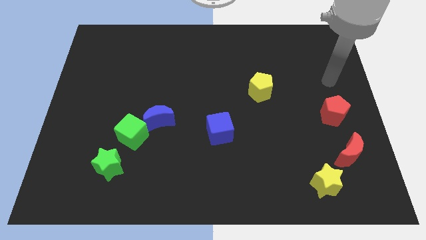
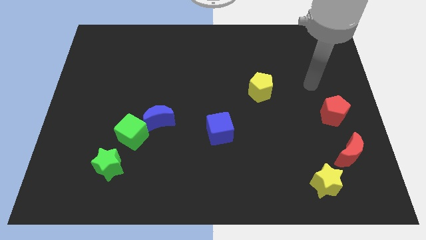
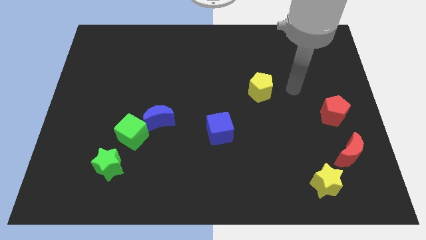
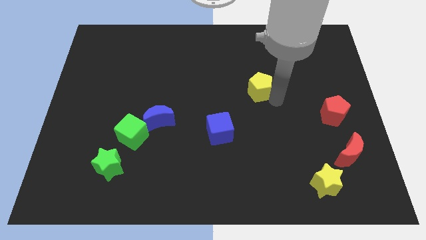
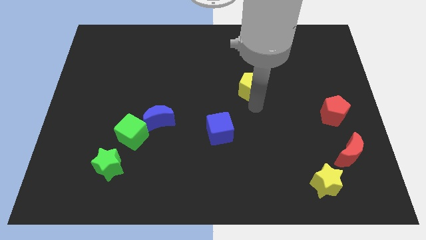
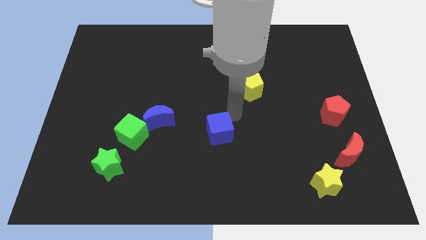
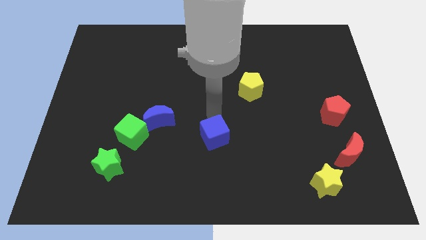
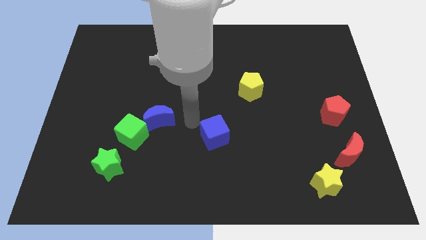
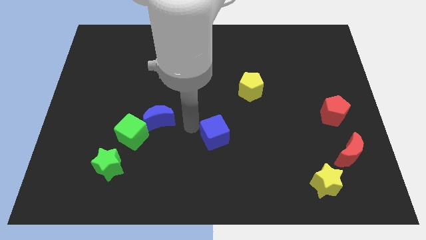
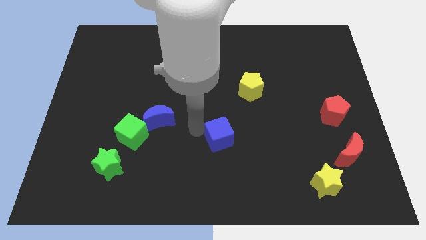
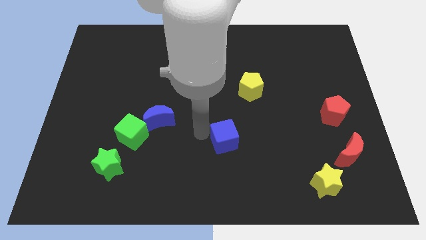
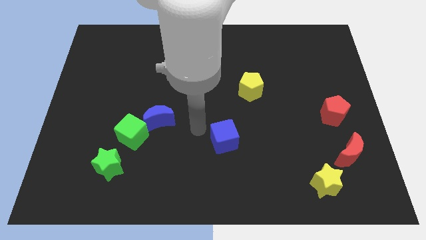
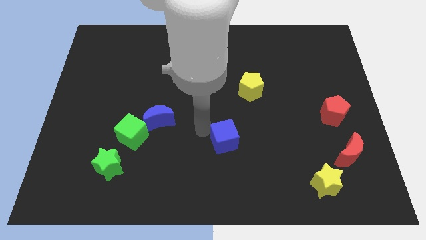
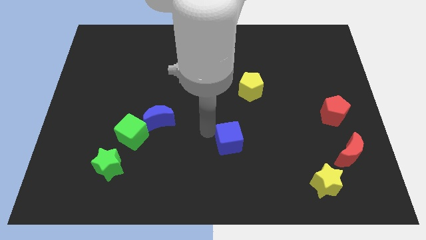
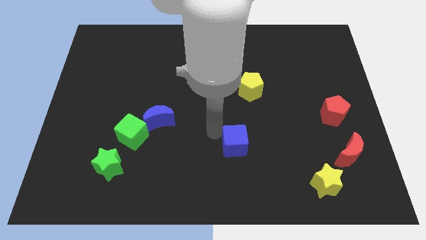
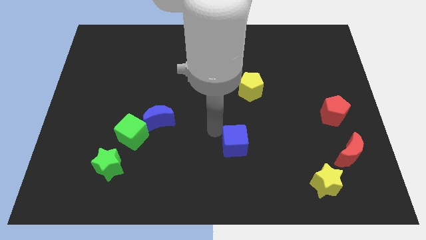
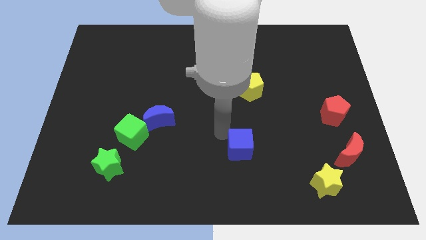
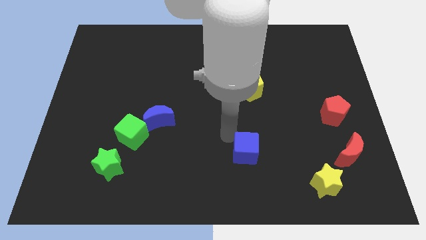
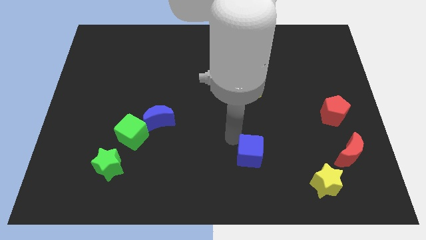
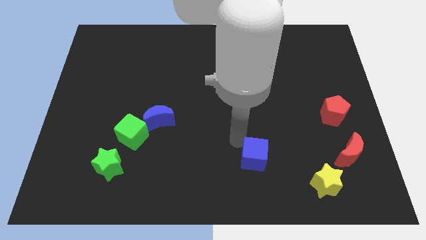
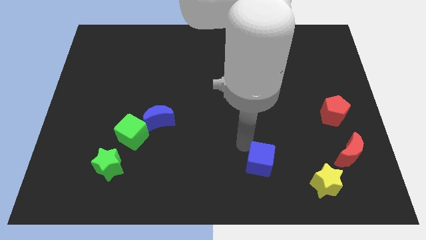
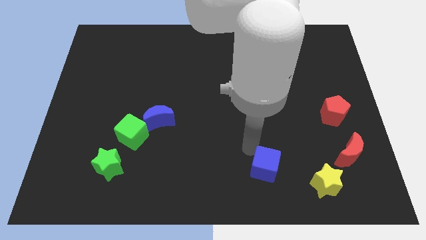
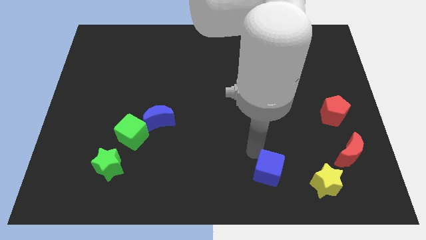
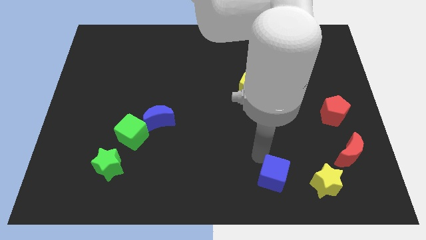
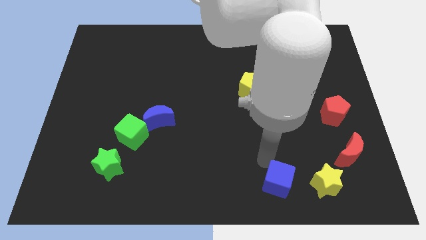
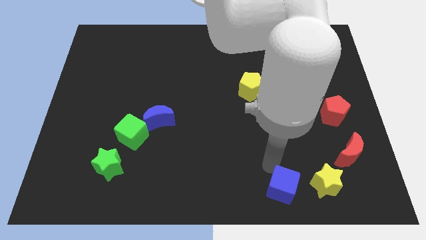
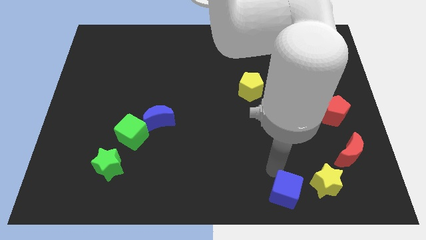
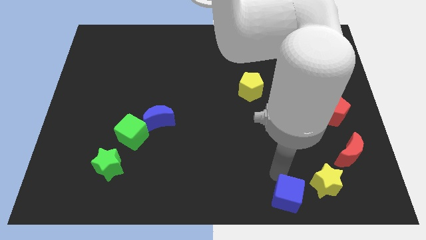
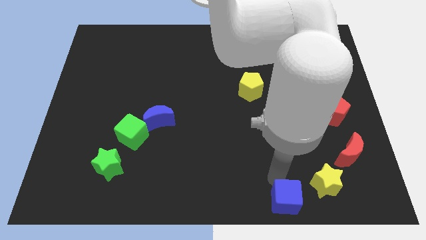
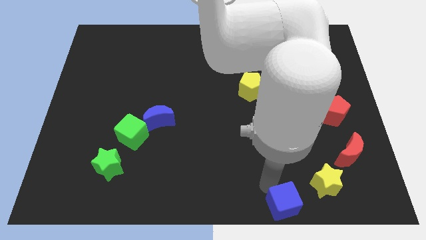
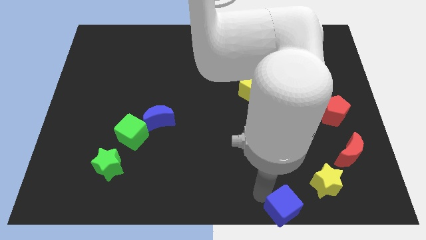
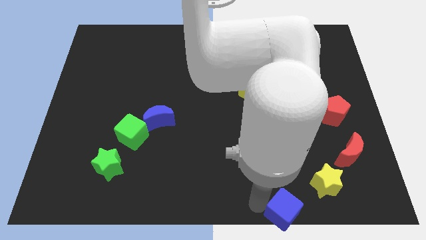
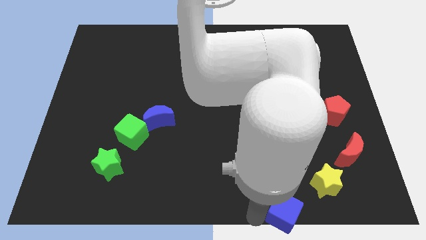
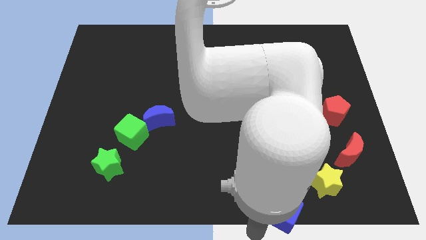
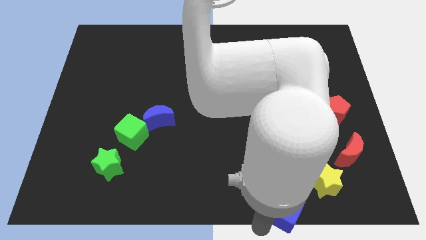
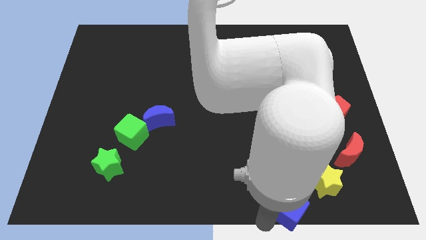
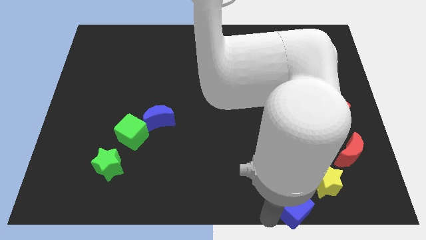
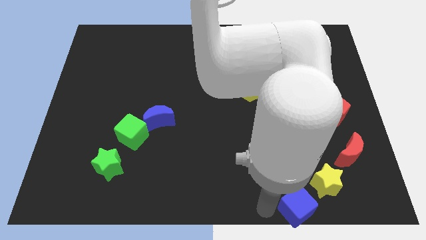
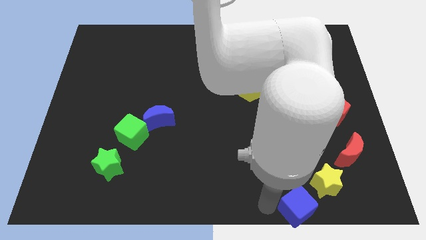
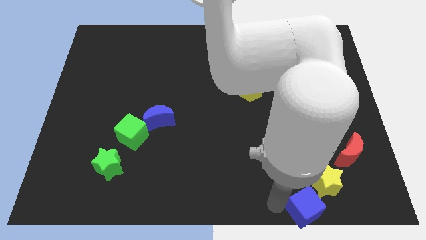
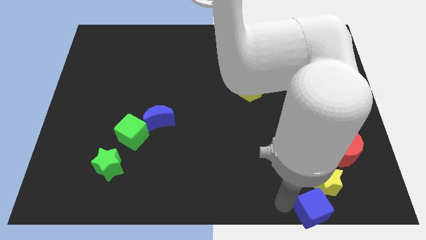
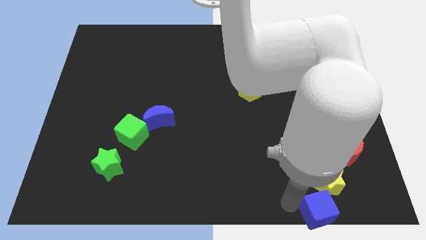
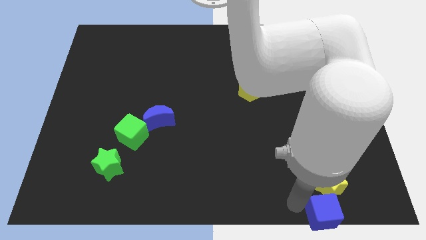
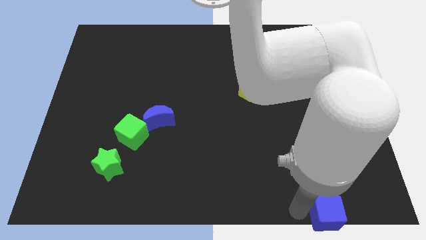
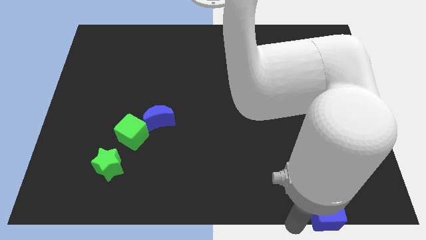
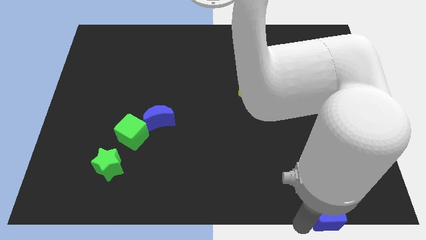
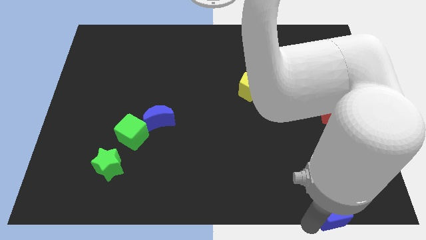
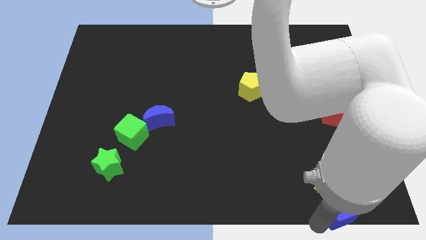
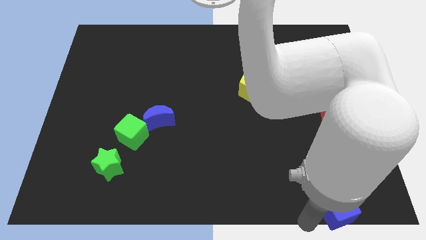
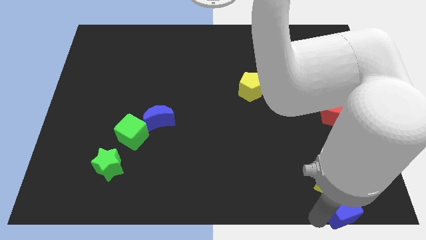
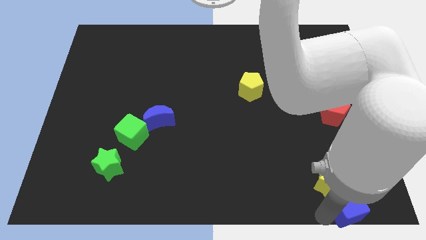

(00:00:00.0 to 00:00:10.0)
slide the blue cube to the lower right corner

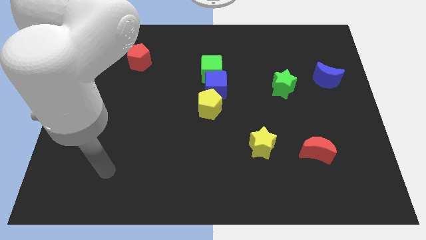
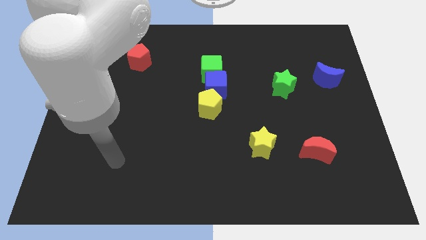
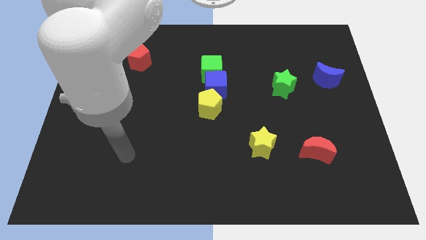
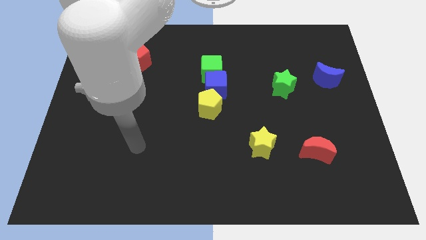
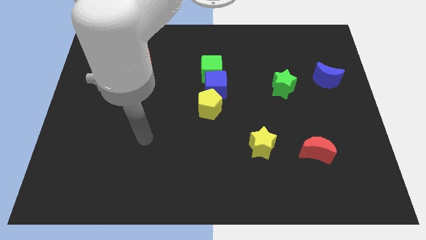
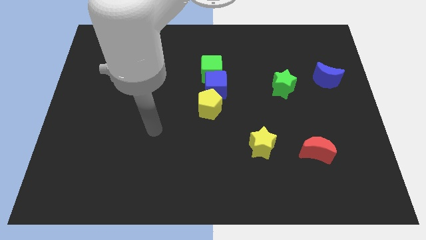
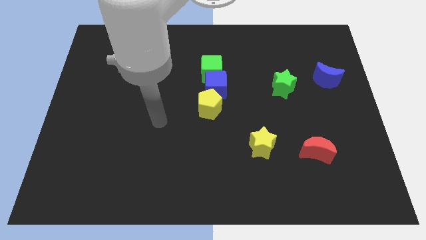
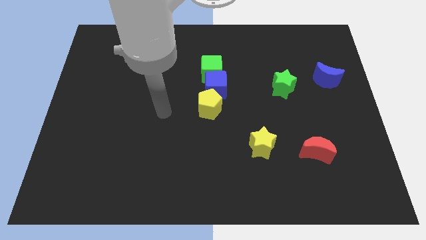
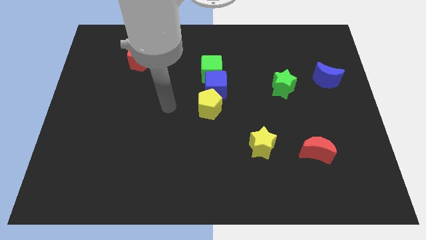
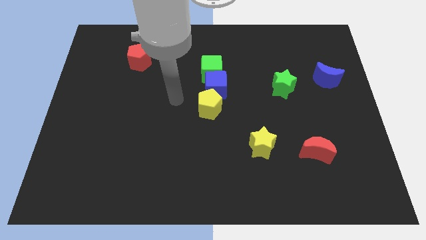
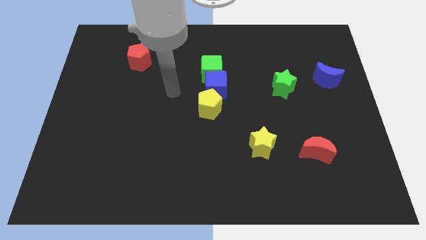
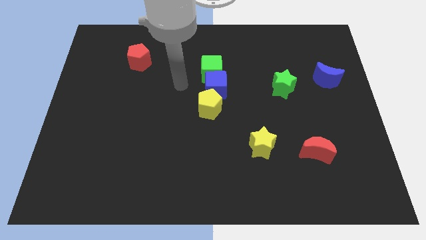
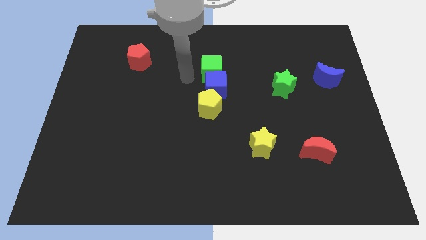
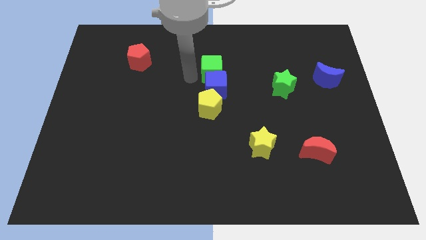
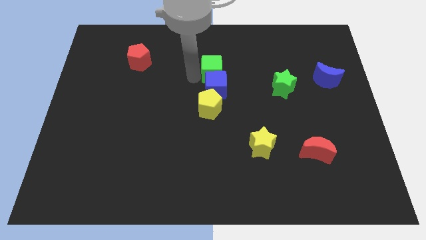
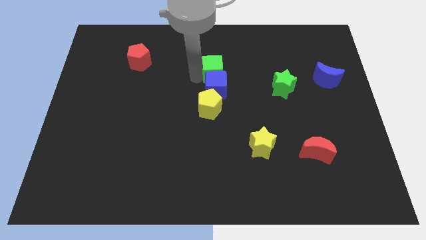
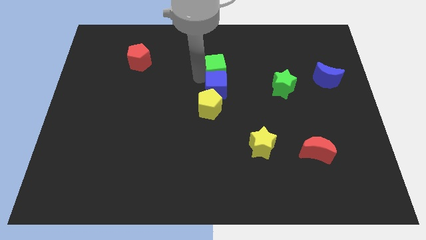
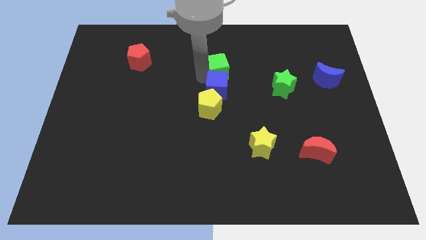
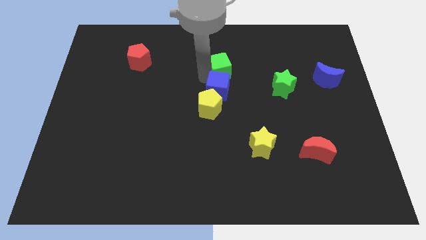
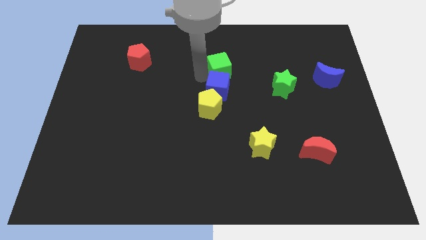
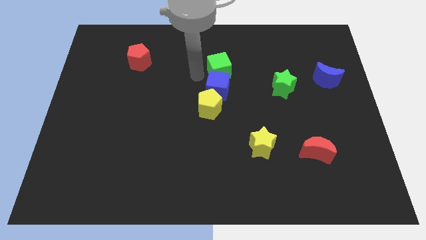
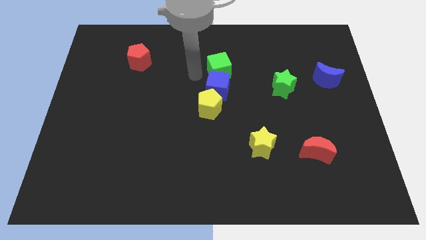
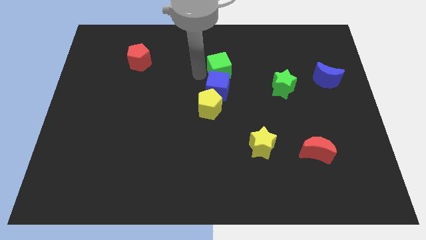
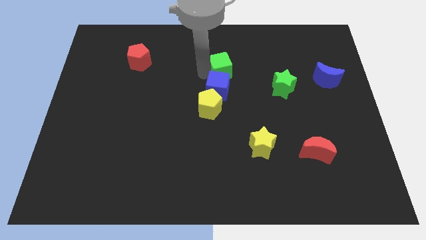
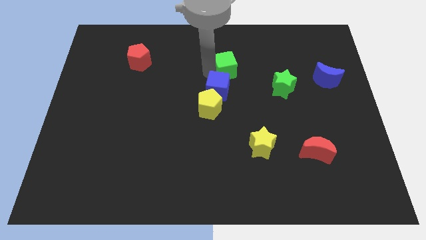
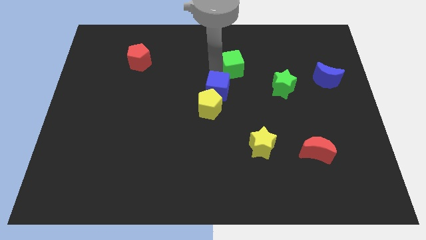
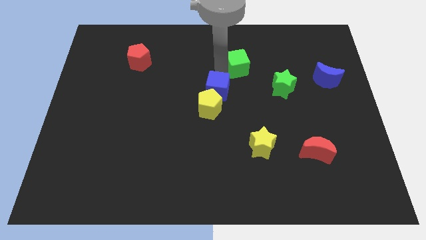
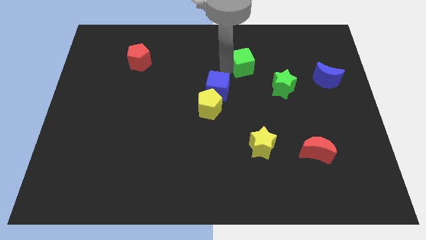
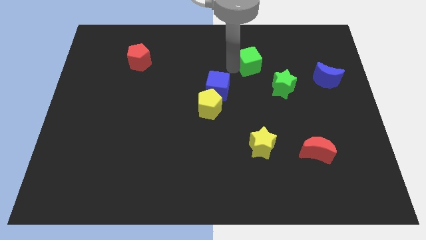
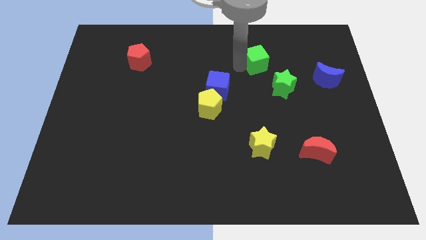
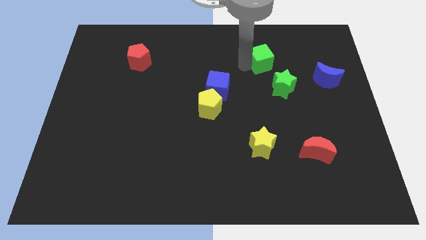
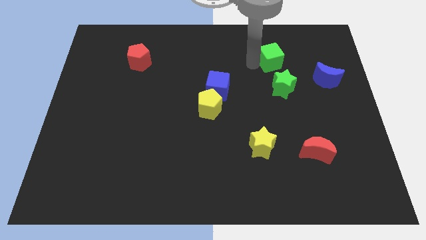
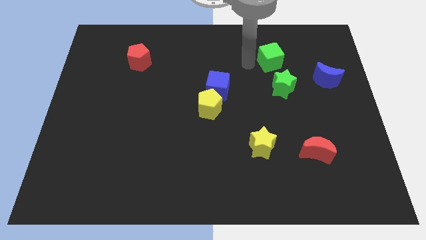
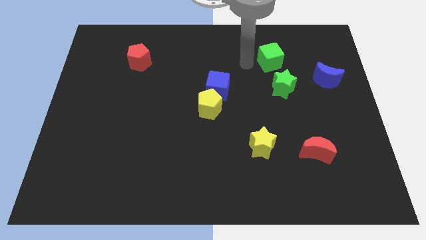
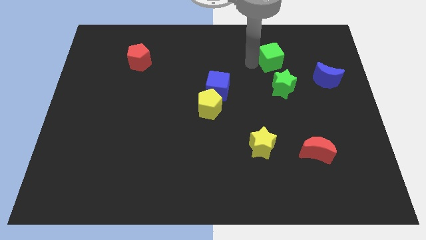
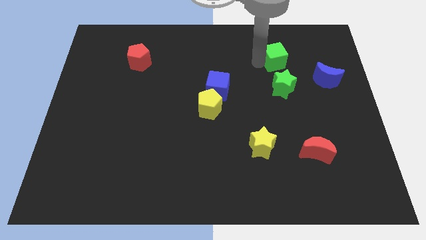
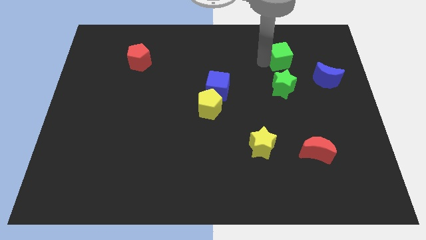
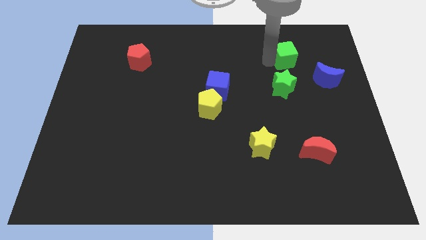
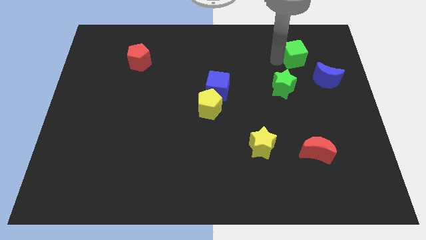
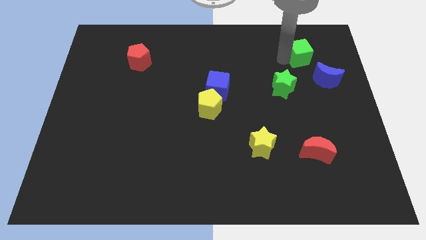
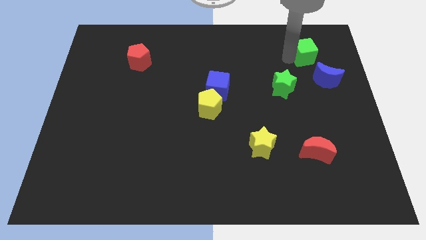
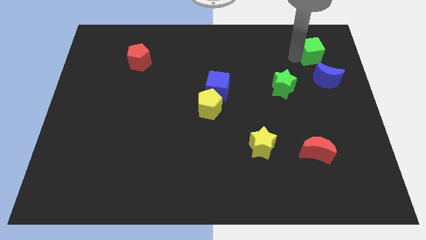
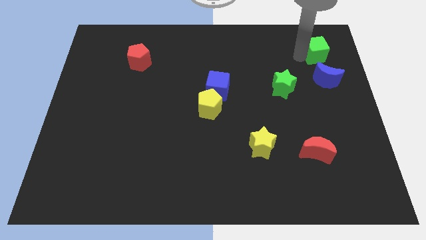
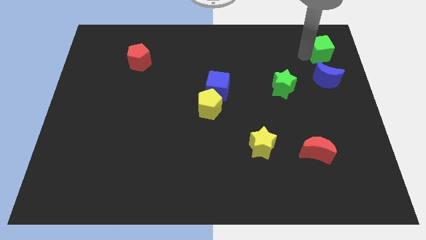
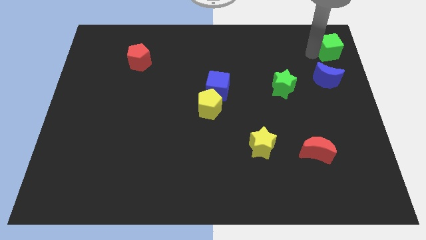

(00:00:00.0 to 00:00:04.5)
move the green cube to the upper right corner
